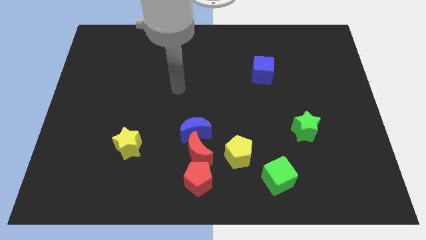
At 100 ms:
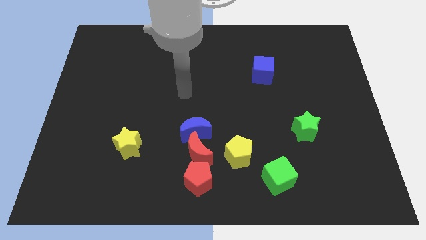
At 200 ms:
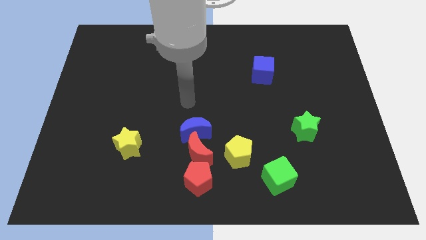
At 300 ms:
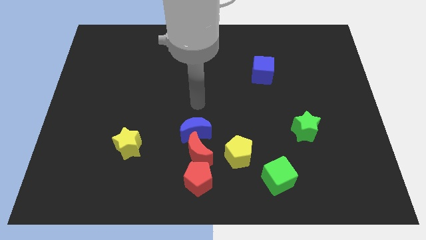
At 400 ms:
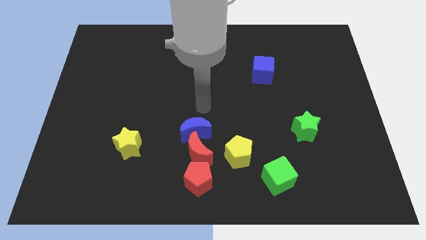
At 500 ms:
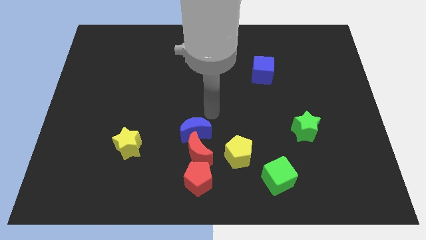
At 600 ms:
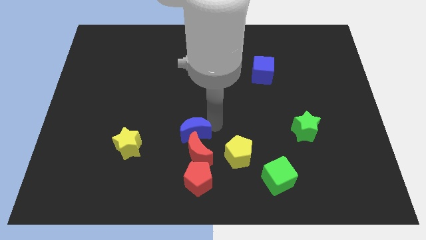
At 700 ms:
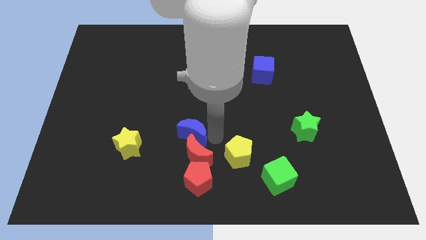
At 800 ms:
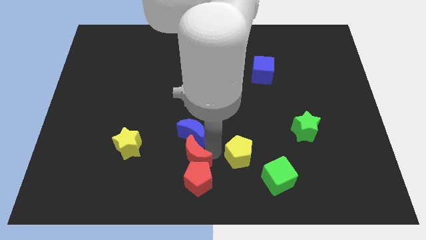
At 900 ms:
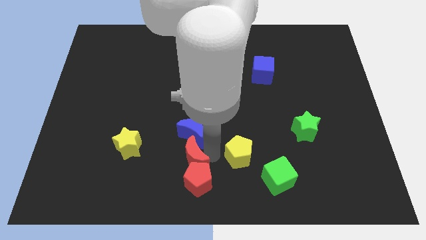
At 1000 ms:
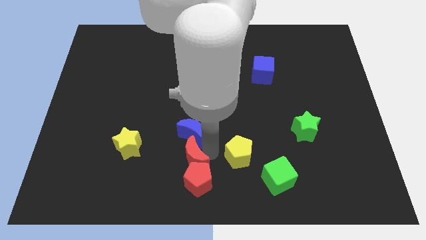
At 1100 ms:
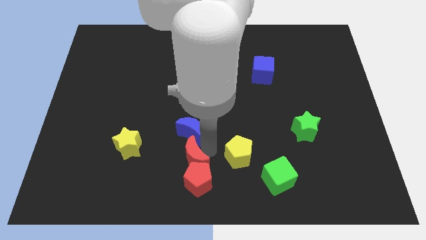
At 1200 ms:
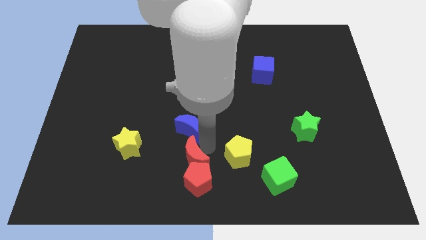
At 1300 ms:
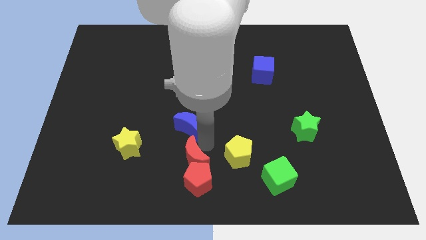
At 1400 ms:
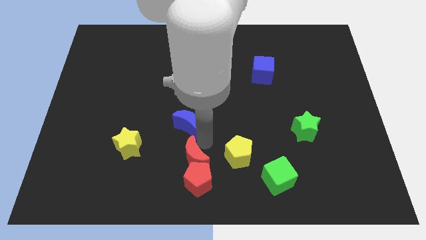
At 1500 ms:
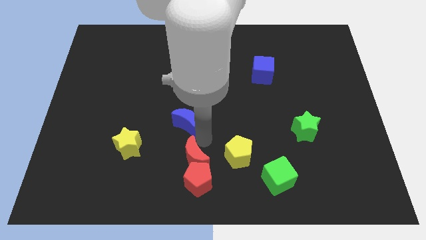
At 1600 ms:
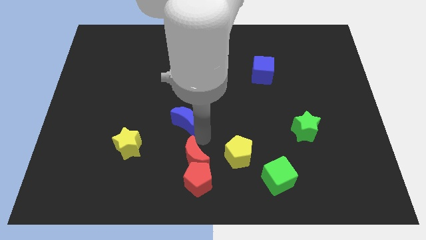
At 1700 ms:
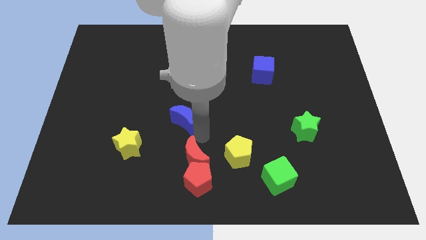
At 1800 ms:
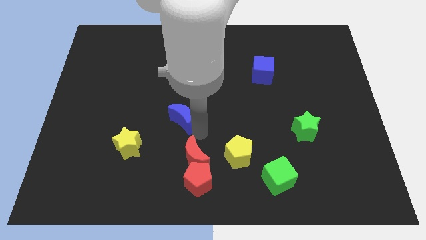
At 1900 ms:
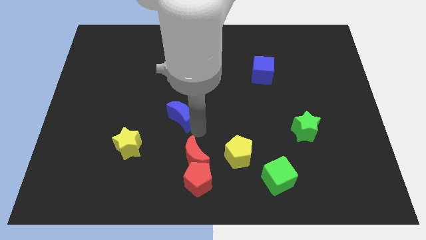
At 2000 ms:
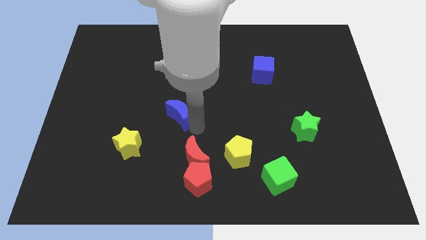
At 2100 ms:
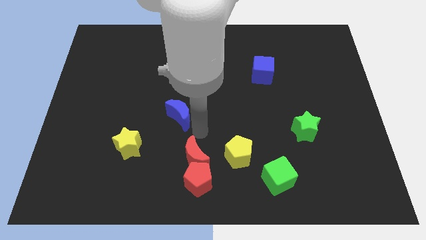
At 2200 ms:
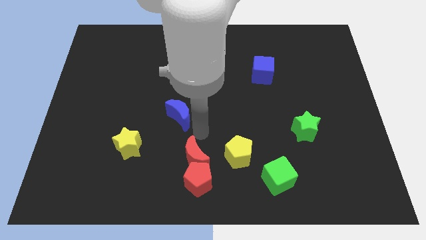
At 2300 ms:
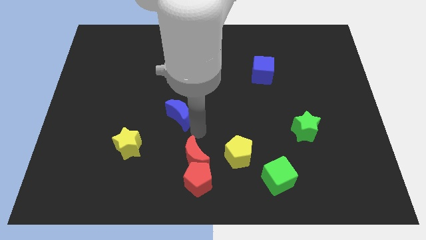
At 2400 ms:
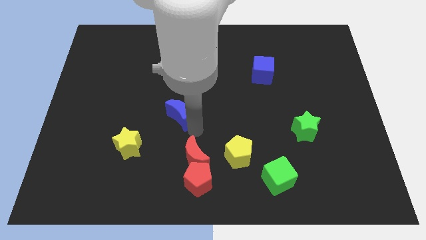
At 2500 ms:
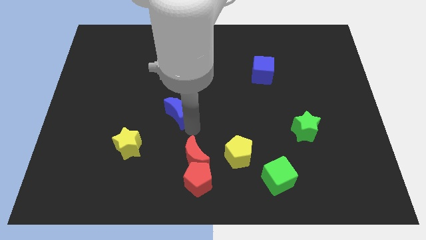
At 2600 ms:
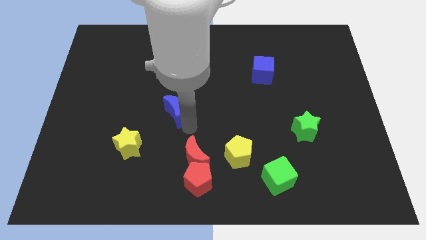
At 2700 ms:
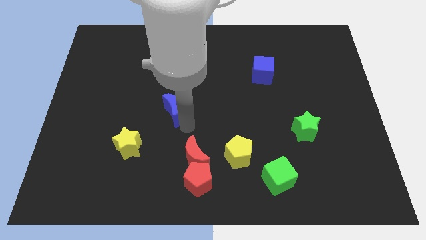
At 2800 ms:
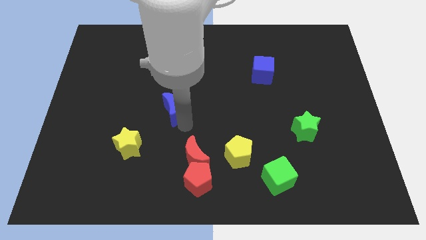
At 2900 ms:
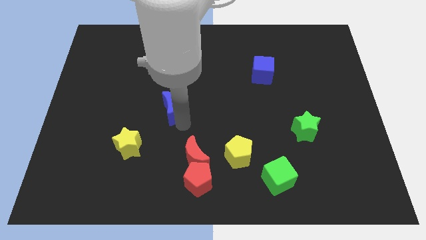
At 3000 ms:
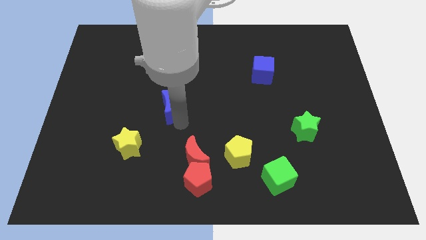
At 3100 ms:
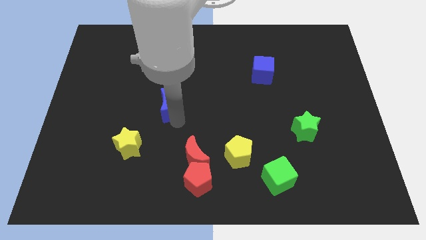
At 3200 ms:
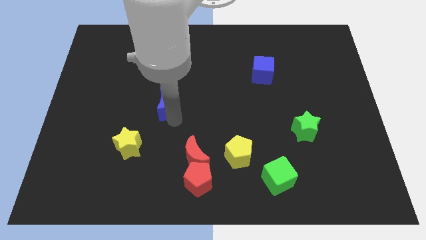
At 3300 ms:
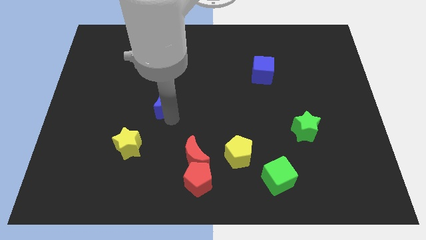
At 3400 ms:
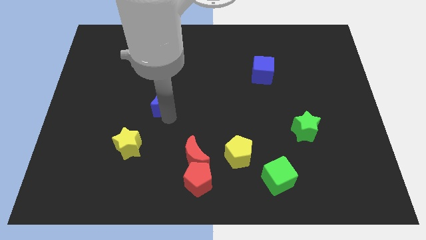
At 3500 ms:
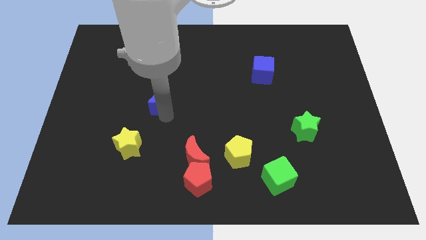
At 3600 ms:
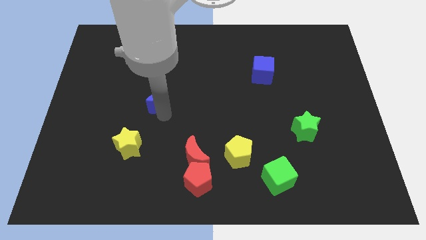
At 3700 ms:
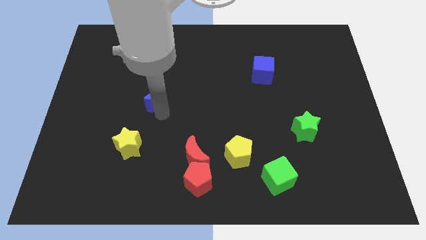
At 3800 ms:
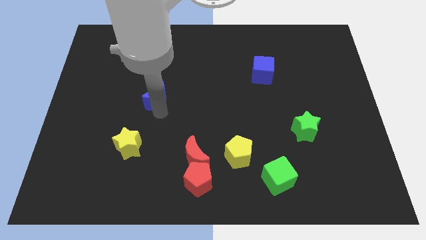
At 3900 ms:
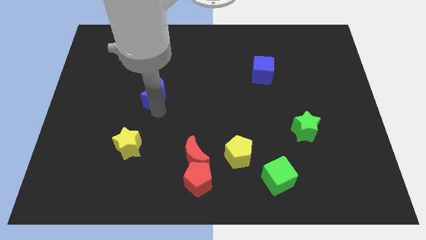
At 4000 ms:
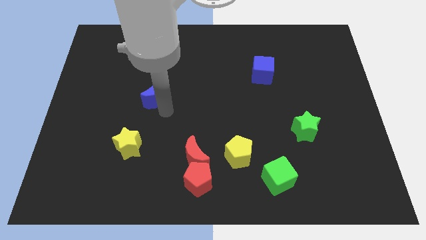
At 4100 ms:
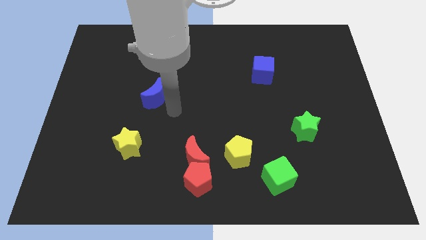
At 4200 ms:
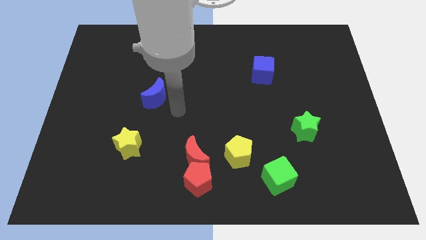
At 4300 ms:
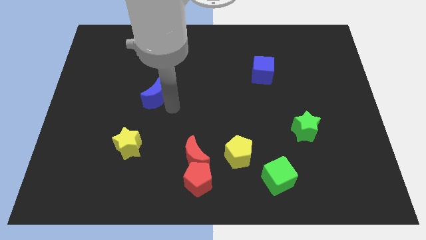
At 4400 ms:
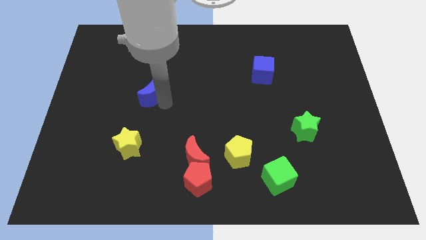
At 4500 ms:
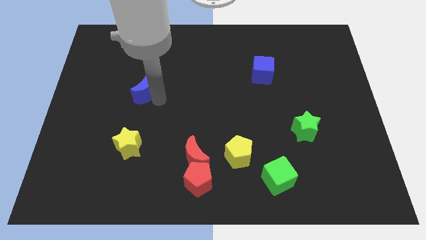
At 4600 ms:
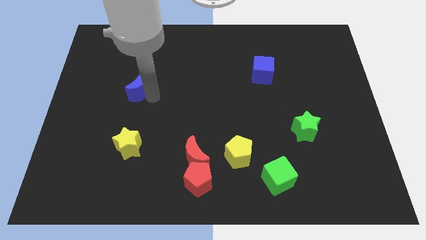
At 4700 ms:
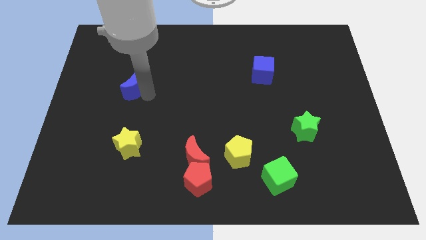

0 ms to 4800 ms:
move the blue moon up and then to the left

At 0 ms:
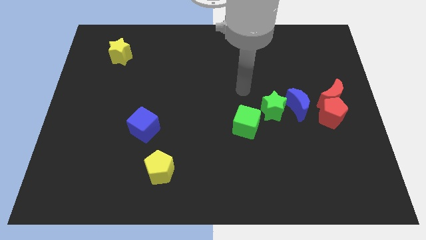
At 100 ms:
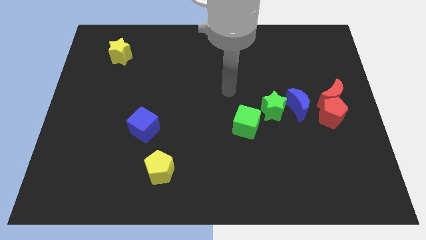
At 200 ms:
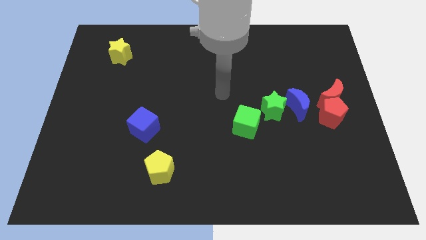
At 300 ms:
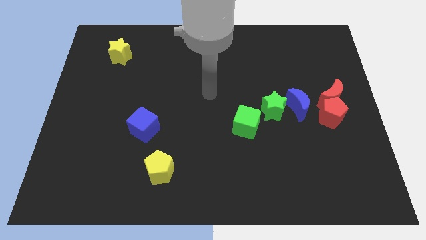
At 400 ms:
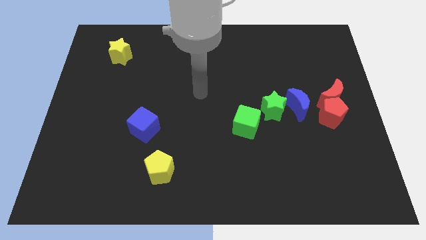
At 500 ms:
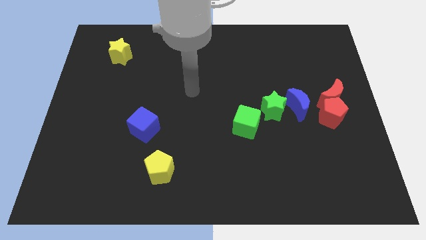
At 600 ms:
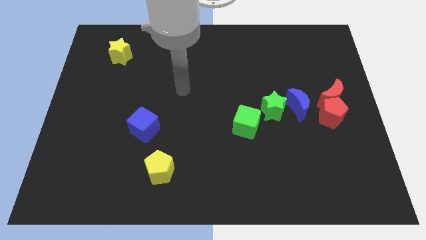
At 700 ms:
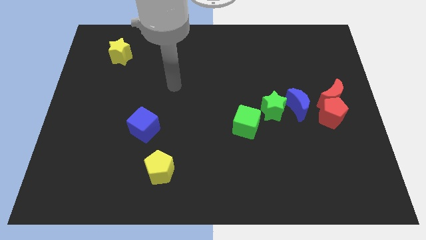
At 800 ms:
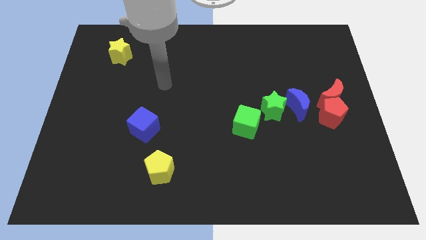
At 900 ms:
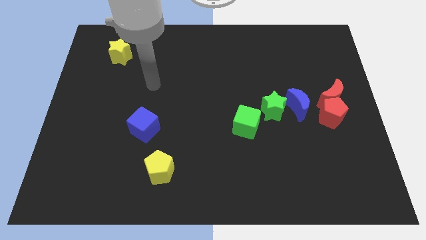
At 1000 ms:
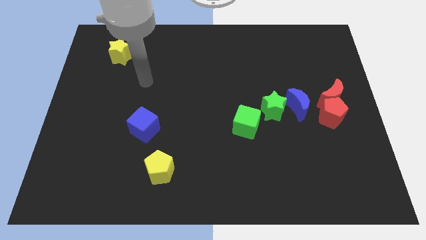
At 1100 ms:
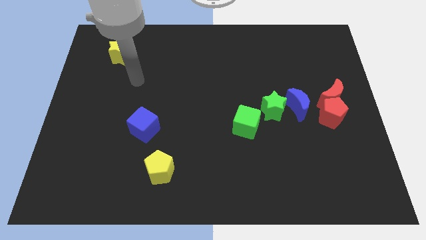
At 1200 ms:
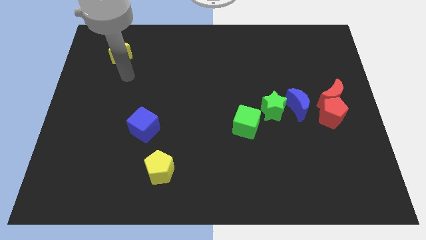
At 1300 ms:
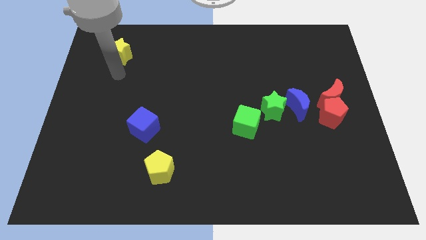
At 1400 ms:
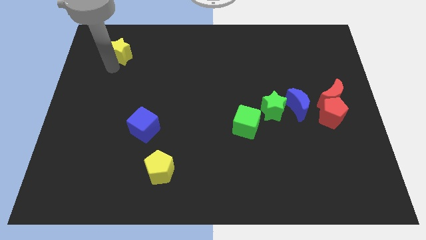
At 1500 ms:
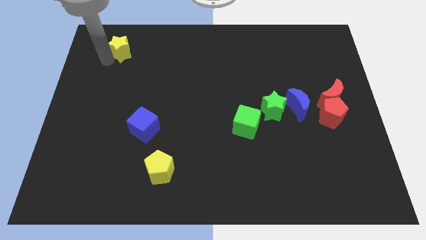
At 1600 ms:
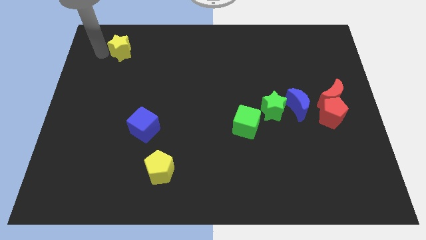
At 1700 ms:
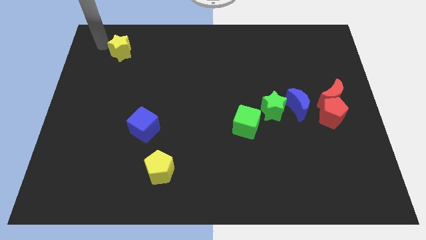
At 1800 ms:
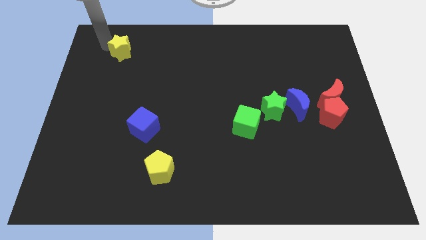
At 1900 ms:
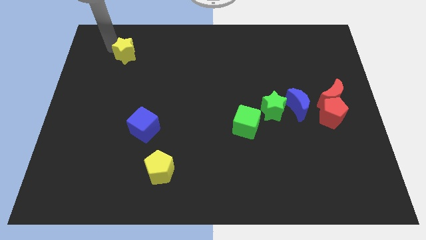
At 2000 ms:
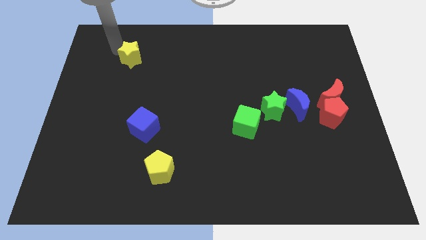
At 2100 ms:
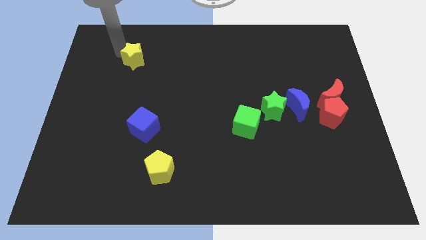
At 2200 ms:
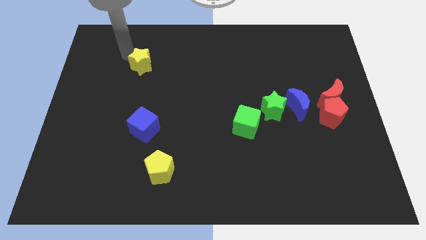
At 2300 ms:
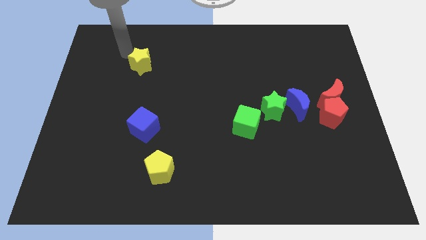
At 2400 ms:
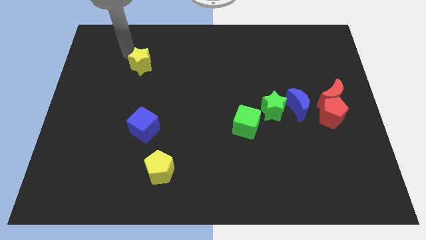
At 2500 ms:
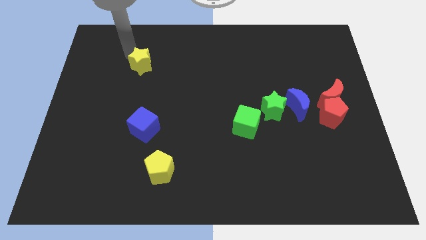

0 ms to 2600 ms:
slightly move the yellow star down and right

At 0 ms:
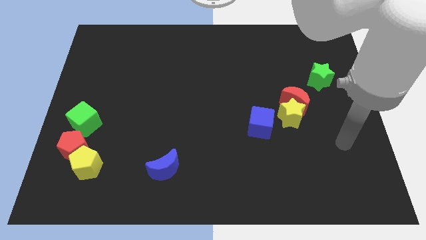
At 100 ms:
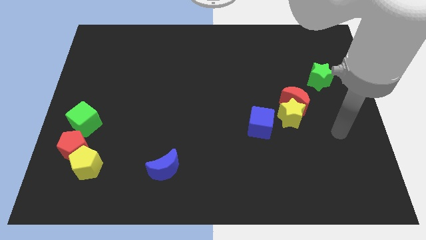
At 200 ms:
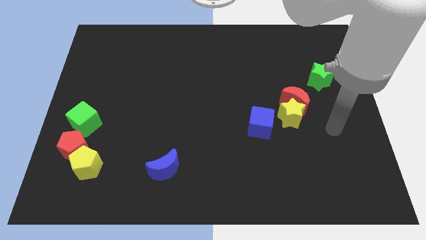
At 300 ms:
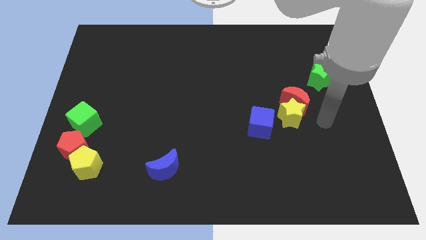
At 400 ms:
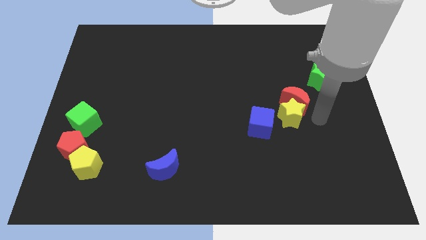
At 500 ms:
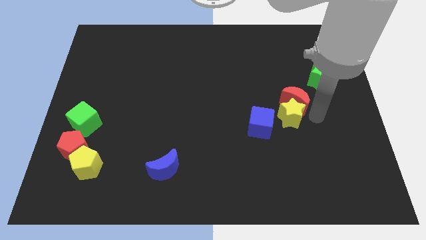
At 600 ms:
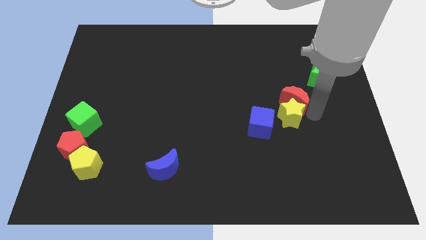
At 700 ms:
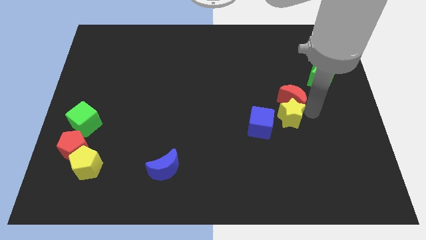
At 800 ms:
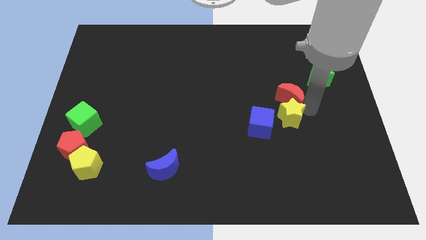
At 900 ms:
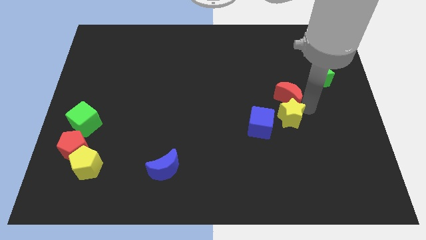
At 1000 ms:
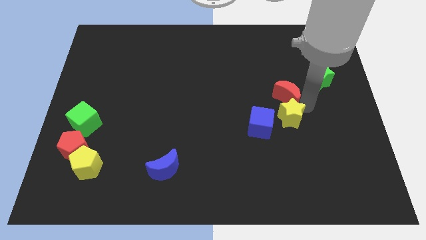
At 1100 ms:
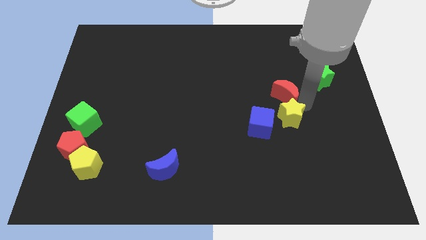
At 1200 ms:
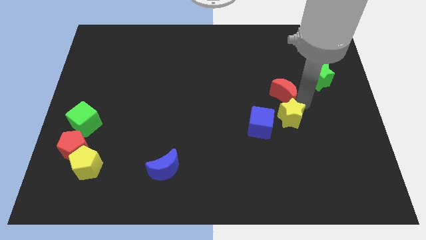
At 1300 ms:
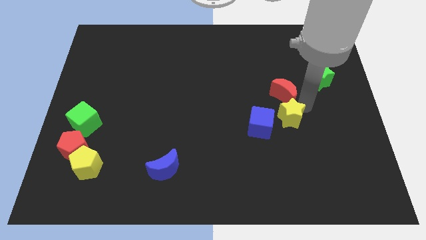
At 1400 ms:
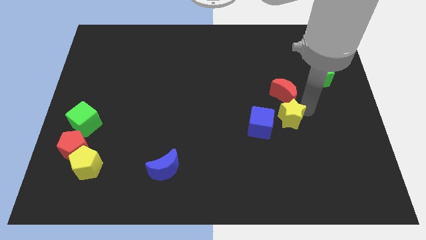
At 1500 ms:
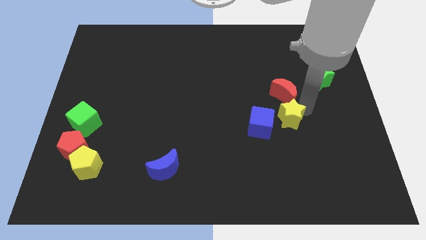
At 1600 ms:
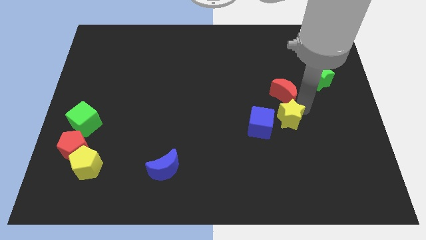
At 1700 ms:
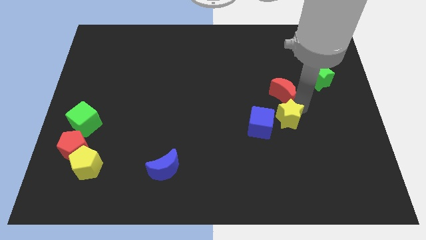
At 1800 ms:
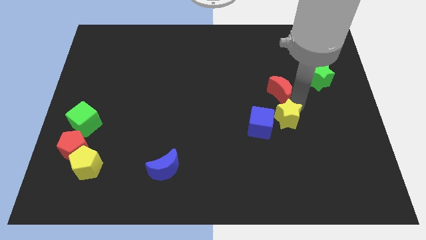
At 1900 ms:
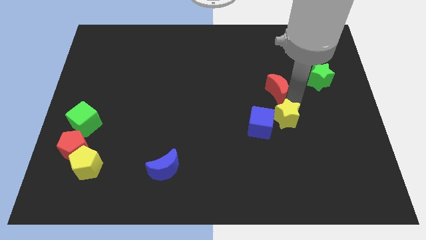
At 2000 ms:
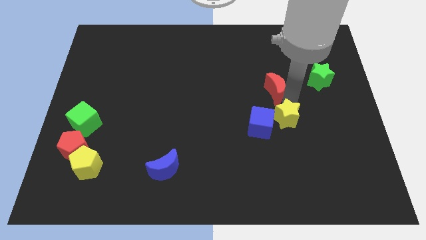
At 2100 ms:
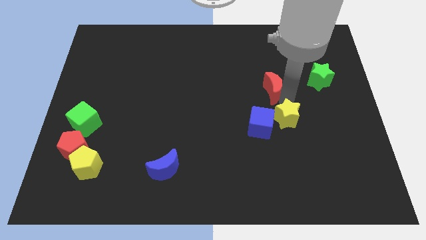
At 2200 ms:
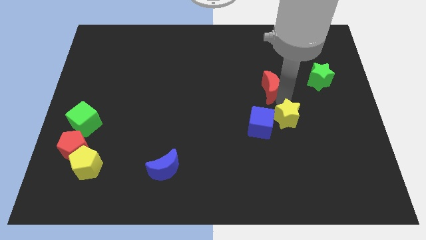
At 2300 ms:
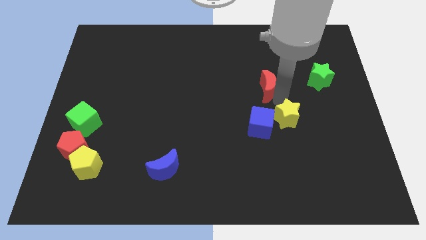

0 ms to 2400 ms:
push the red moon up and then left slightly
